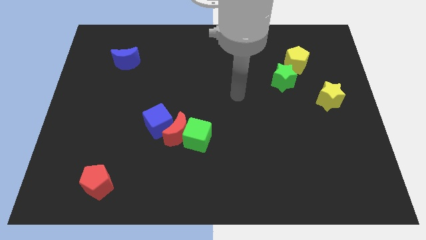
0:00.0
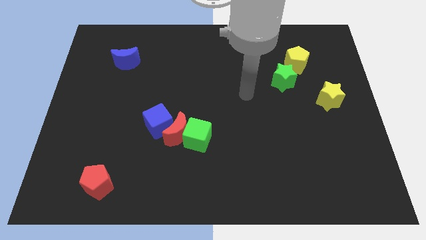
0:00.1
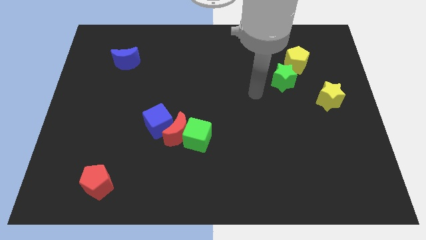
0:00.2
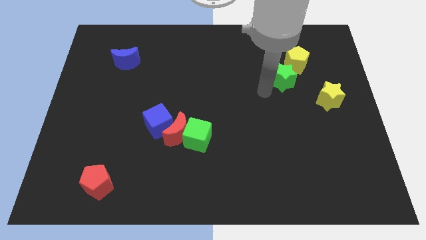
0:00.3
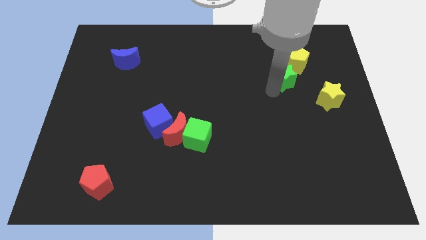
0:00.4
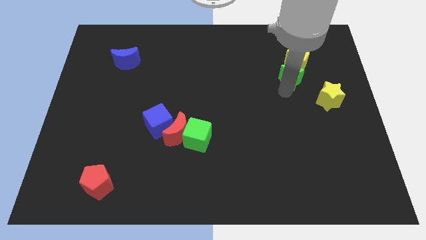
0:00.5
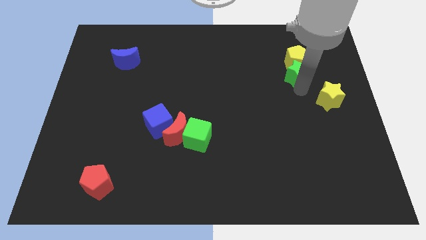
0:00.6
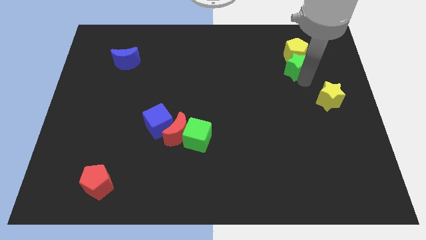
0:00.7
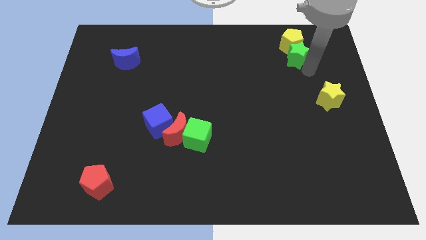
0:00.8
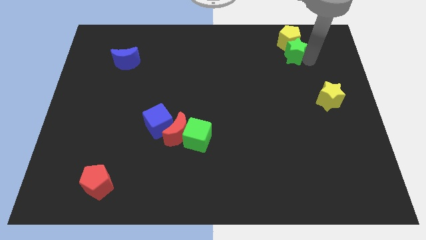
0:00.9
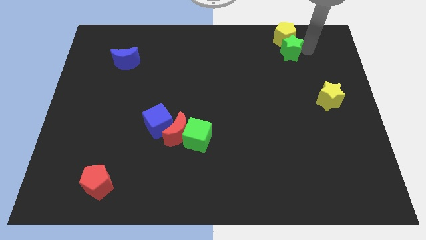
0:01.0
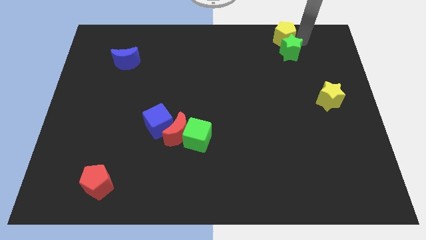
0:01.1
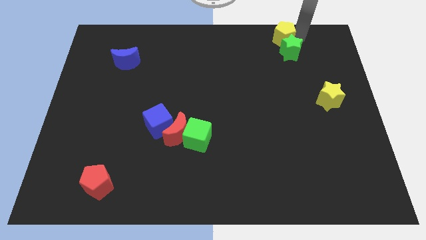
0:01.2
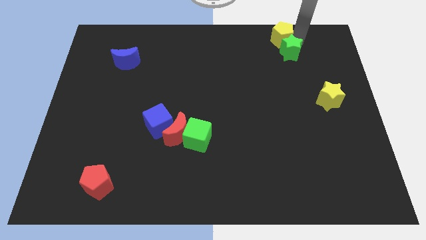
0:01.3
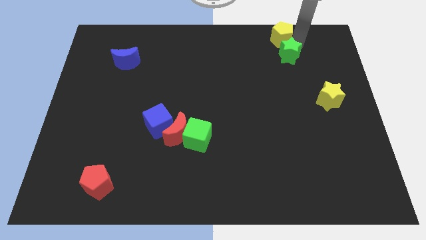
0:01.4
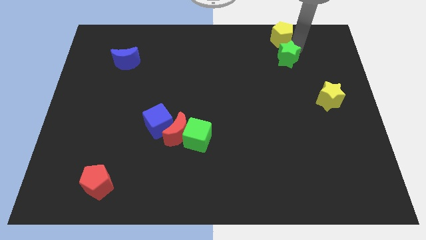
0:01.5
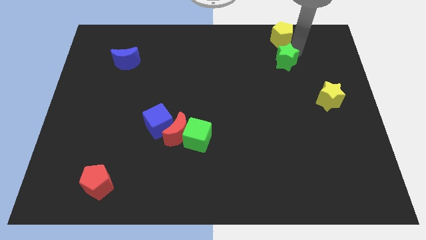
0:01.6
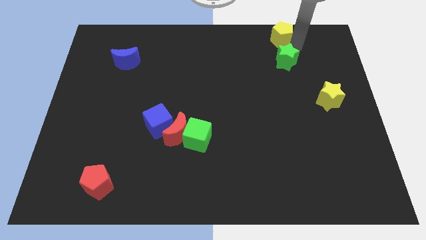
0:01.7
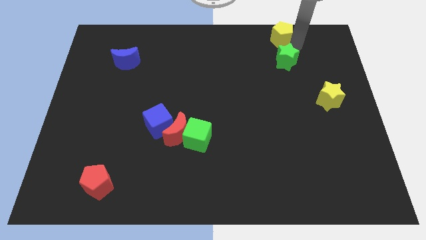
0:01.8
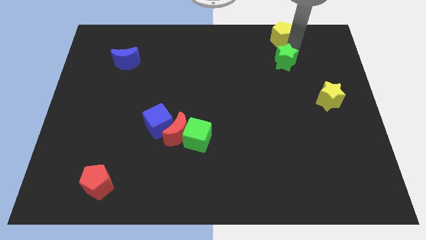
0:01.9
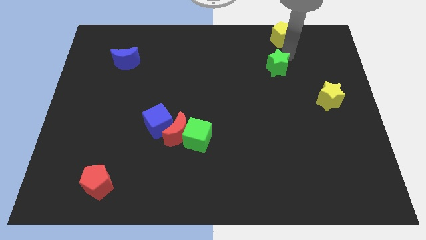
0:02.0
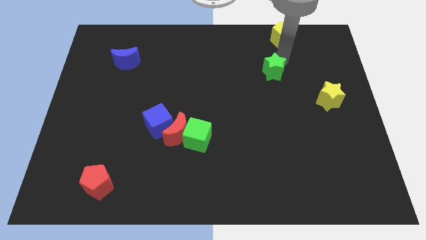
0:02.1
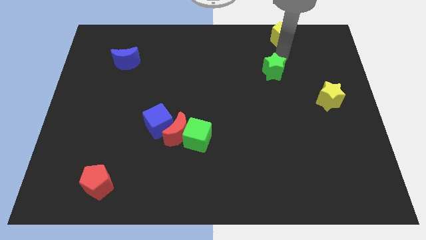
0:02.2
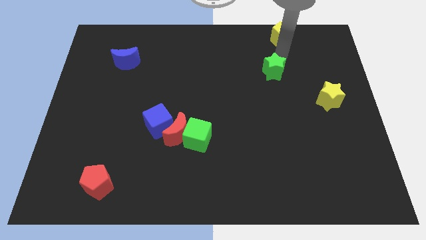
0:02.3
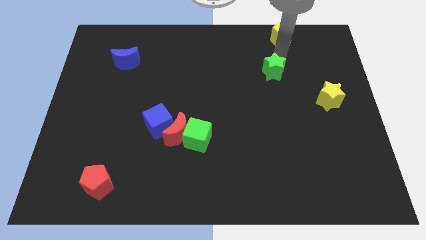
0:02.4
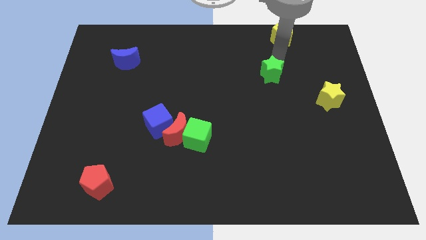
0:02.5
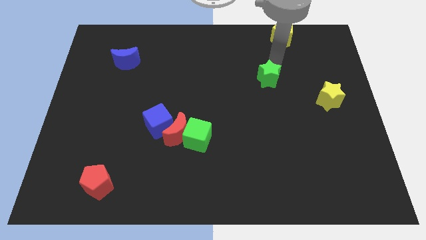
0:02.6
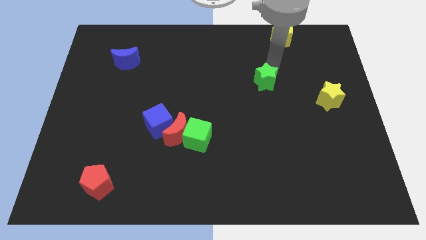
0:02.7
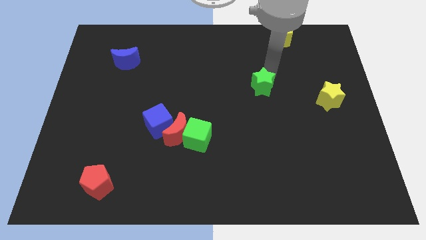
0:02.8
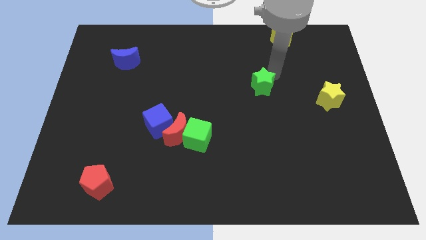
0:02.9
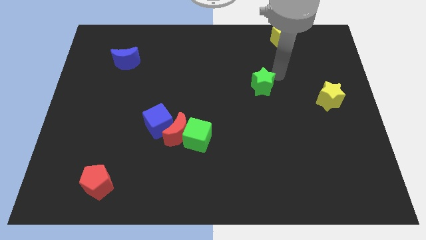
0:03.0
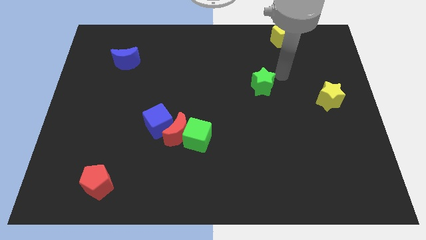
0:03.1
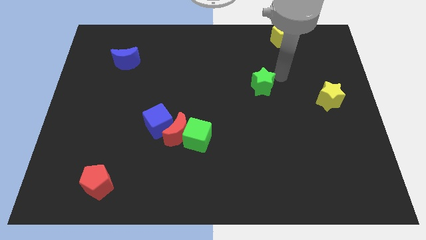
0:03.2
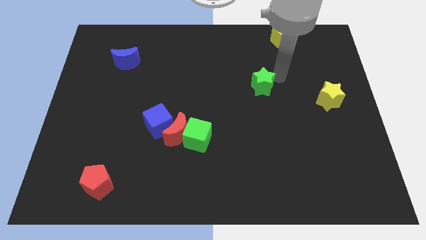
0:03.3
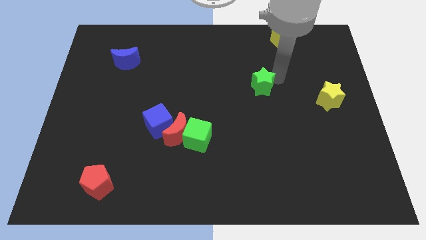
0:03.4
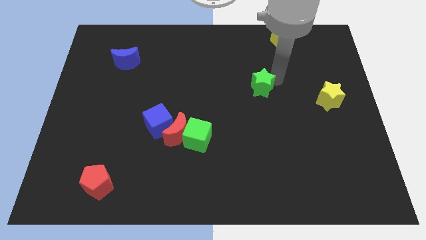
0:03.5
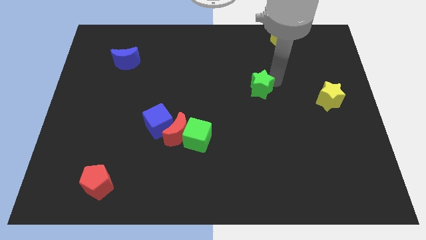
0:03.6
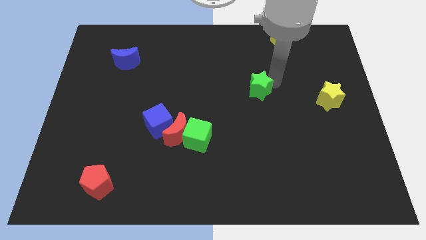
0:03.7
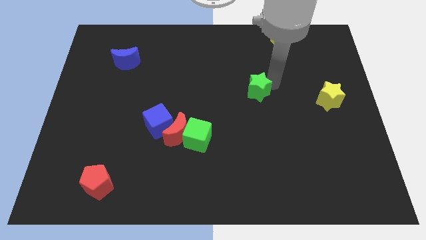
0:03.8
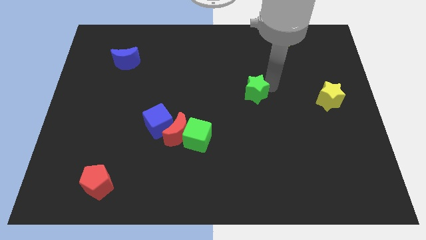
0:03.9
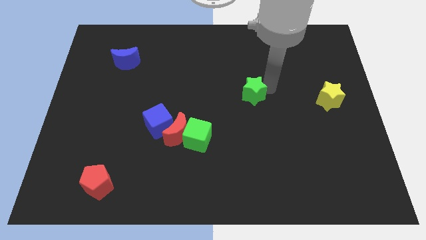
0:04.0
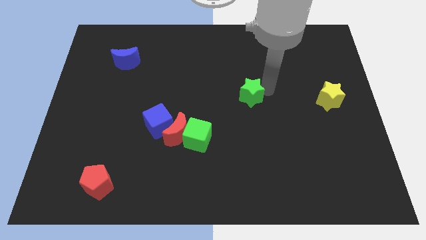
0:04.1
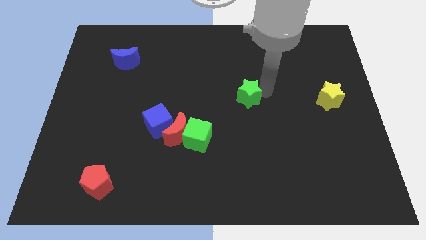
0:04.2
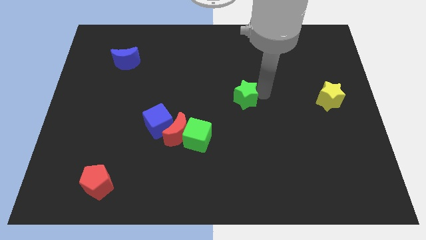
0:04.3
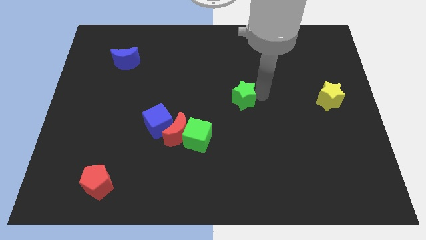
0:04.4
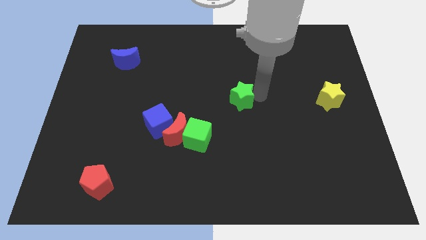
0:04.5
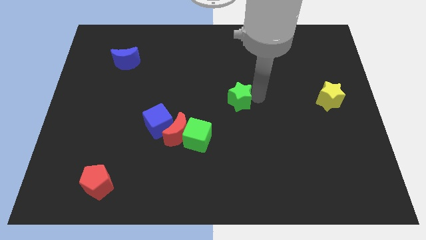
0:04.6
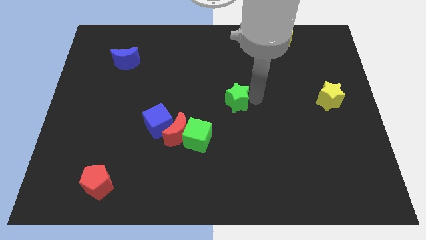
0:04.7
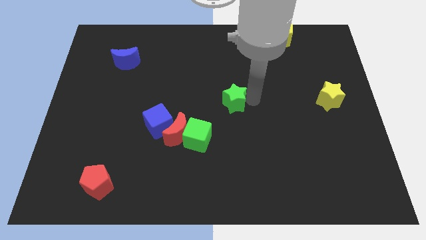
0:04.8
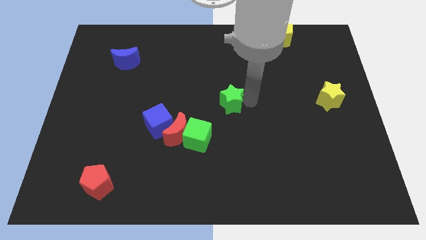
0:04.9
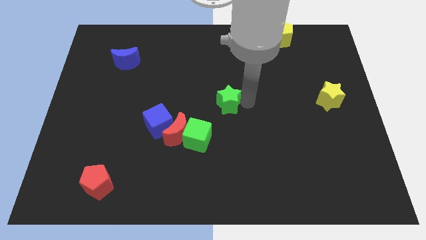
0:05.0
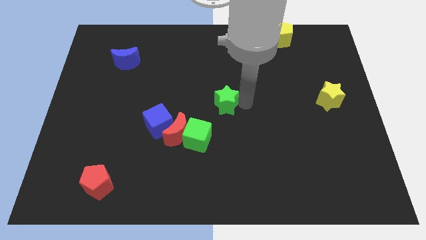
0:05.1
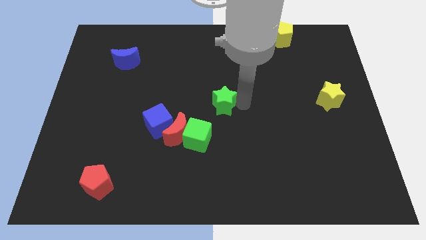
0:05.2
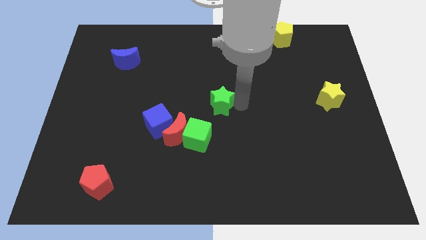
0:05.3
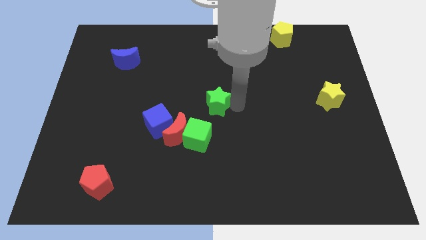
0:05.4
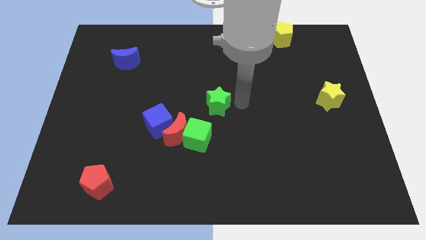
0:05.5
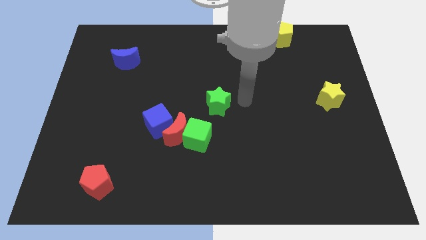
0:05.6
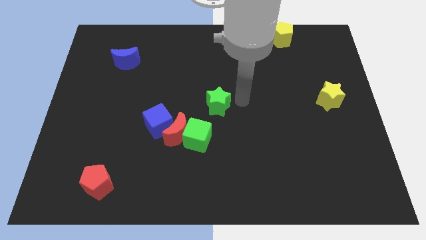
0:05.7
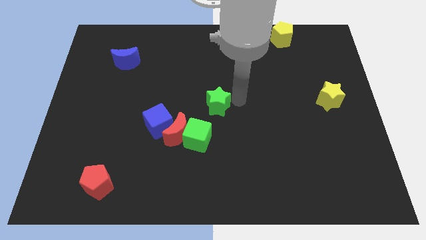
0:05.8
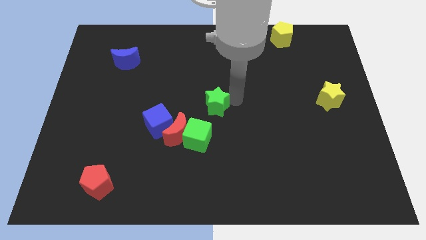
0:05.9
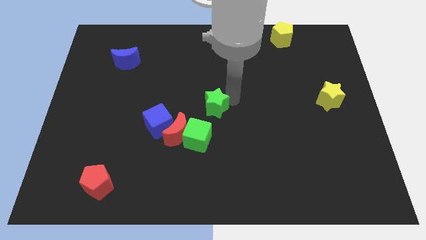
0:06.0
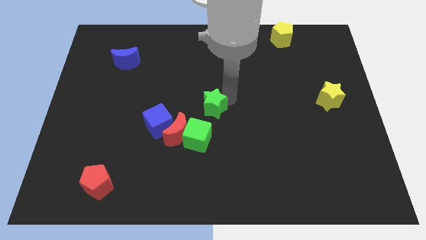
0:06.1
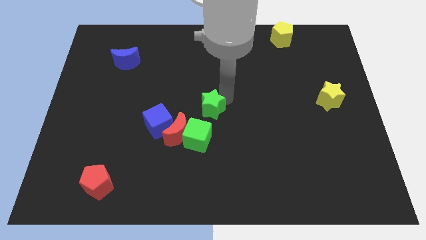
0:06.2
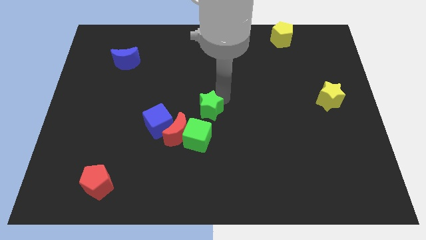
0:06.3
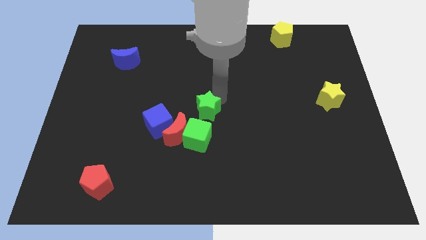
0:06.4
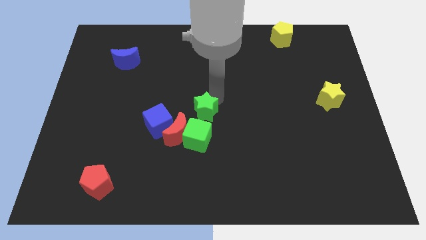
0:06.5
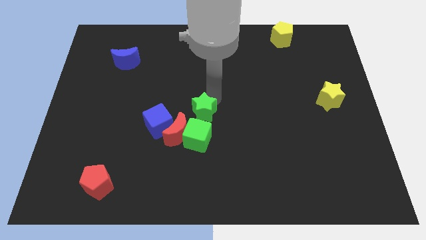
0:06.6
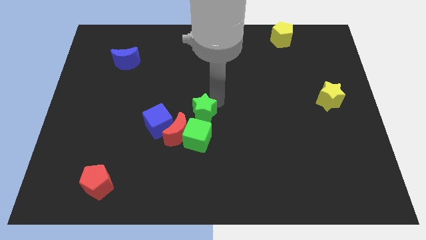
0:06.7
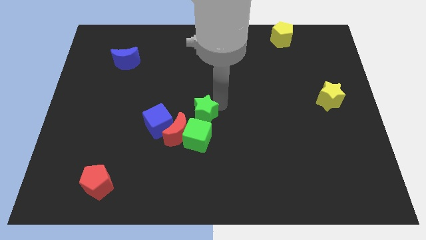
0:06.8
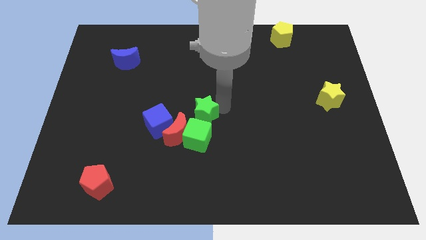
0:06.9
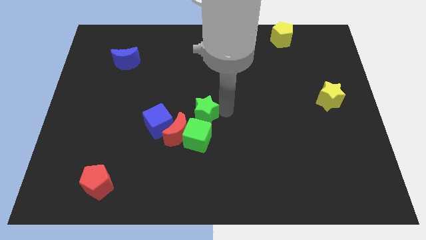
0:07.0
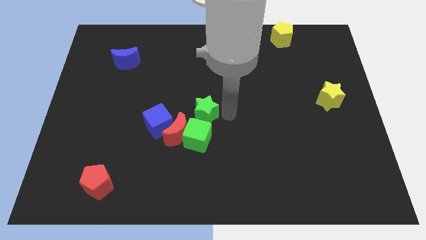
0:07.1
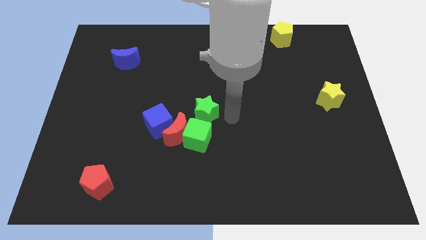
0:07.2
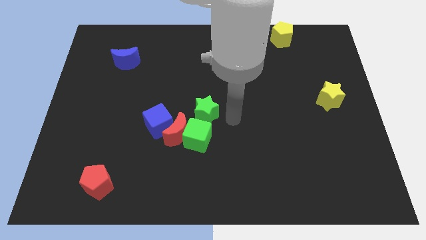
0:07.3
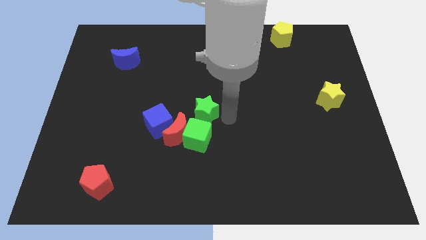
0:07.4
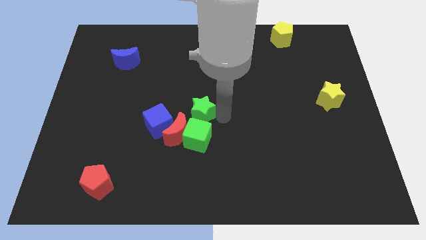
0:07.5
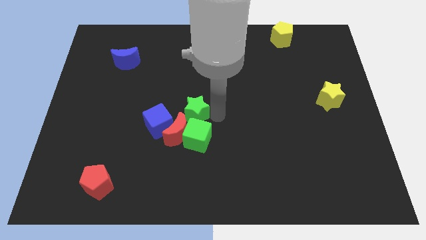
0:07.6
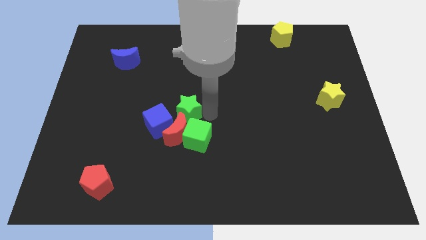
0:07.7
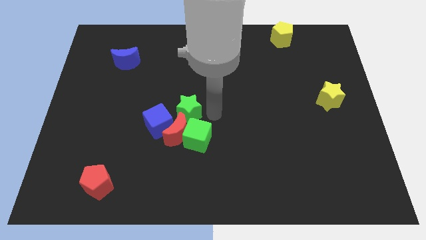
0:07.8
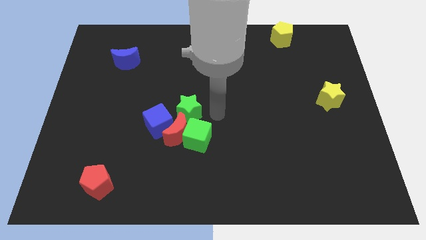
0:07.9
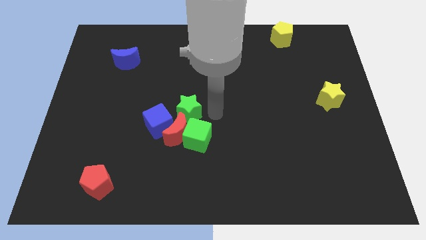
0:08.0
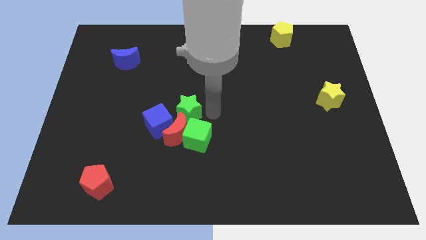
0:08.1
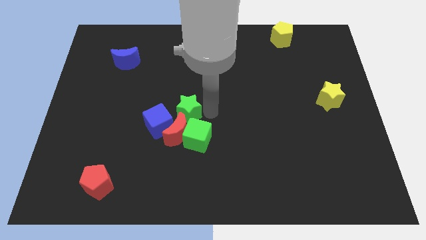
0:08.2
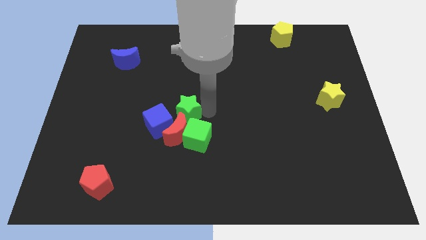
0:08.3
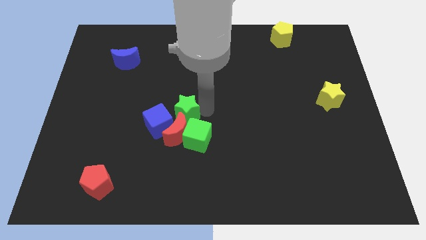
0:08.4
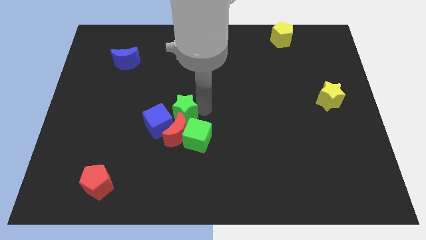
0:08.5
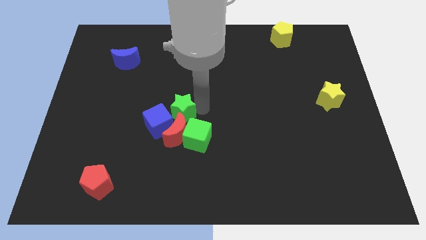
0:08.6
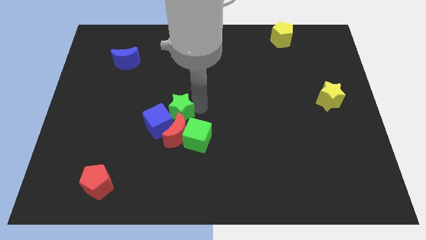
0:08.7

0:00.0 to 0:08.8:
push the green star close to the blue cube
